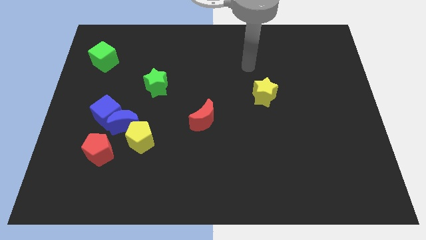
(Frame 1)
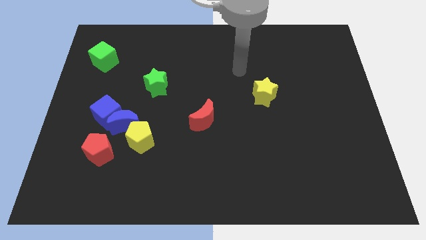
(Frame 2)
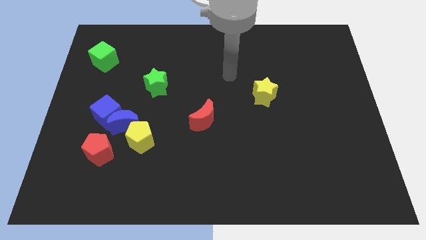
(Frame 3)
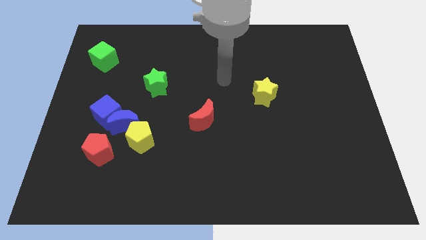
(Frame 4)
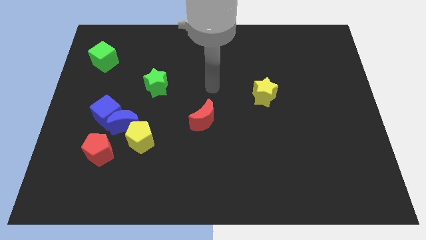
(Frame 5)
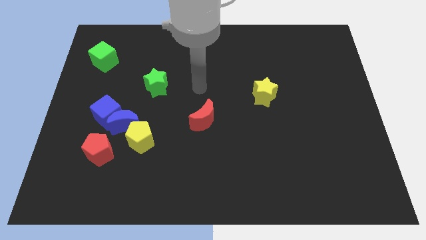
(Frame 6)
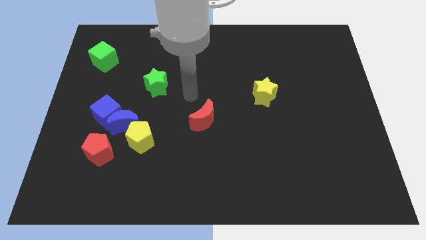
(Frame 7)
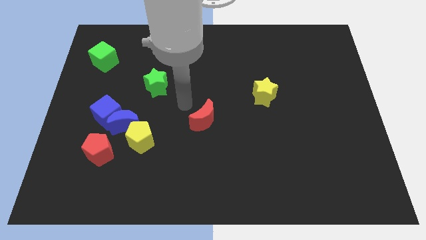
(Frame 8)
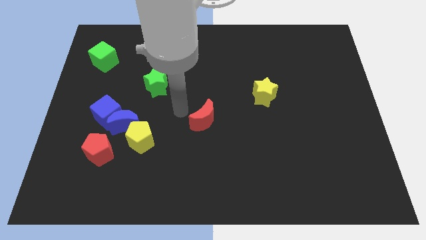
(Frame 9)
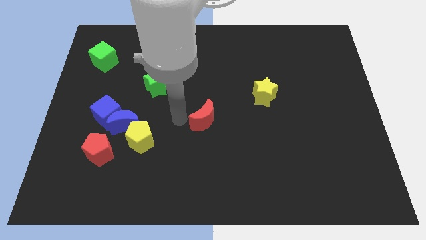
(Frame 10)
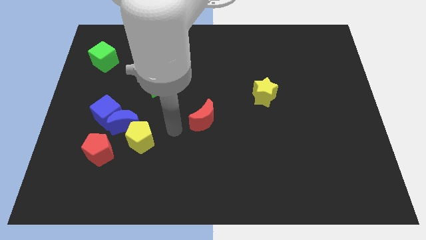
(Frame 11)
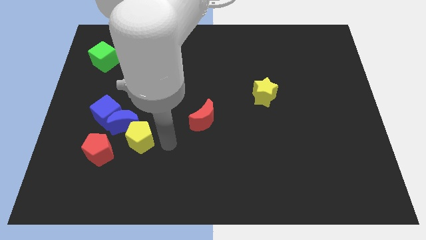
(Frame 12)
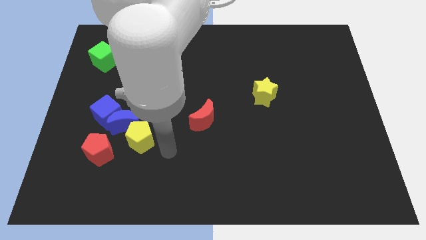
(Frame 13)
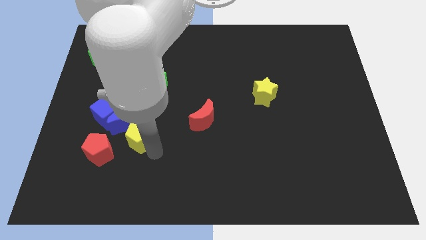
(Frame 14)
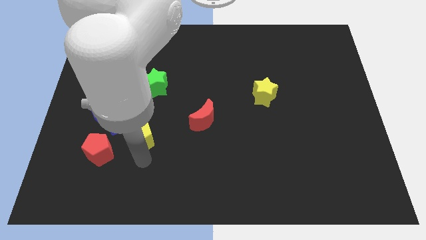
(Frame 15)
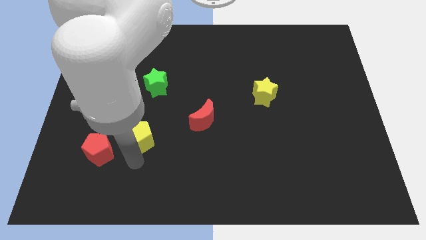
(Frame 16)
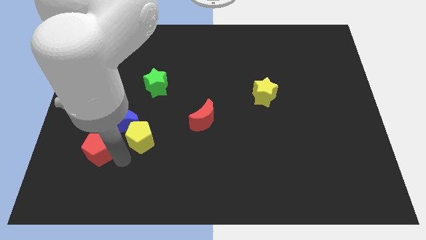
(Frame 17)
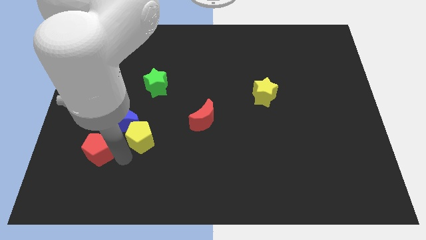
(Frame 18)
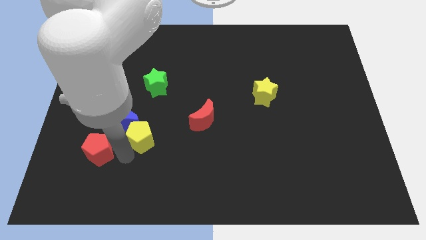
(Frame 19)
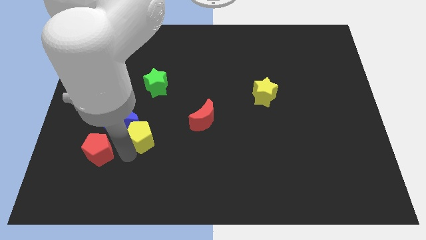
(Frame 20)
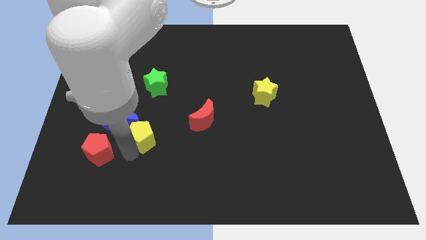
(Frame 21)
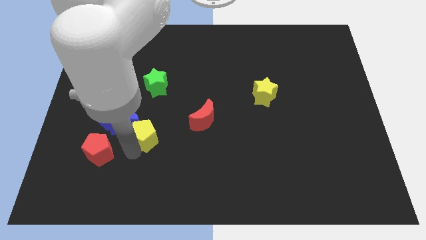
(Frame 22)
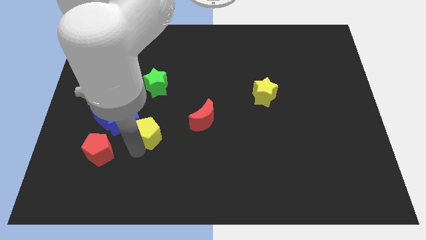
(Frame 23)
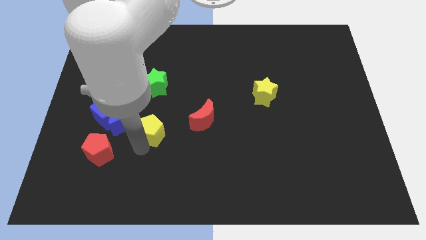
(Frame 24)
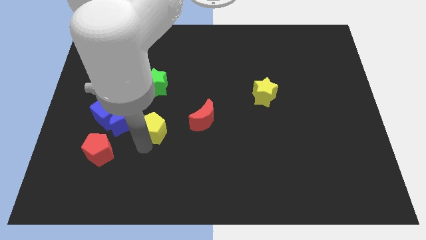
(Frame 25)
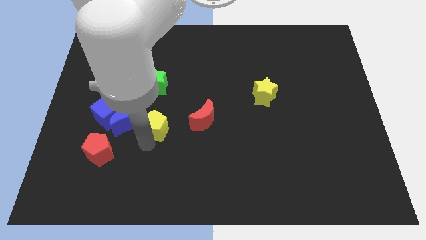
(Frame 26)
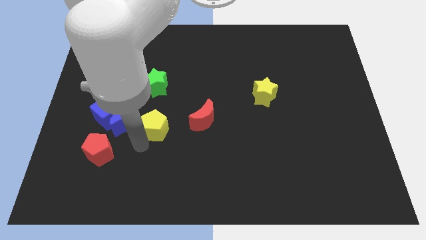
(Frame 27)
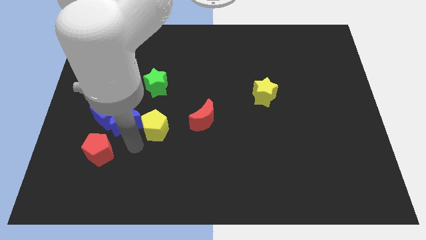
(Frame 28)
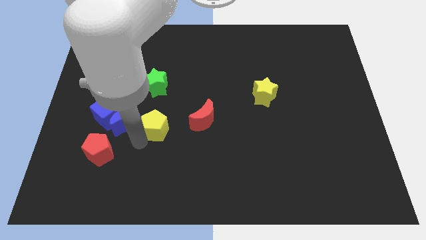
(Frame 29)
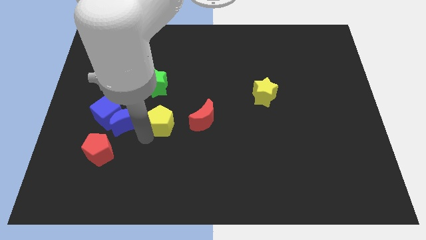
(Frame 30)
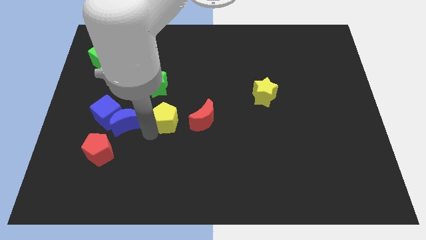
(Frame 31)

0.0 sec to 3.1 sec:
slightly push the yellow pentagon up and right diagonally

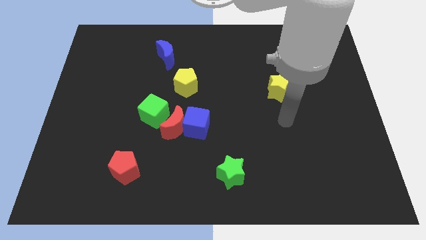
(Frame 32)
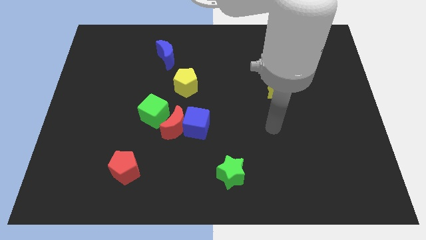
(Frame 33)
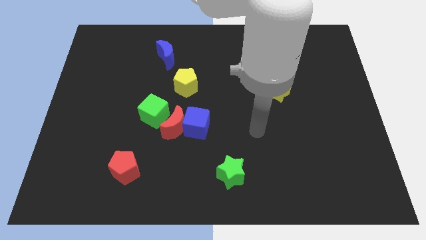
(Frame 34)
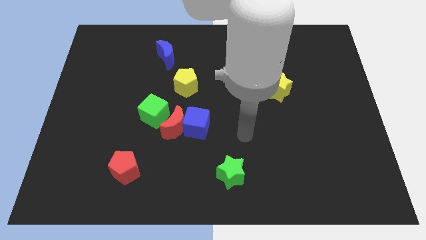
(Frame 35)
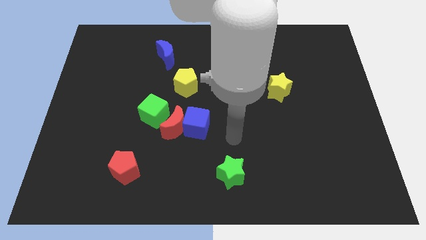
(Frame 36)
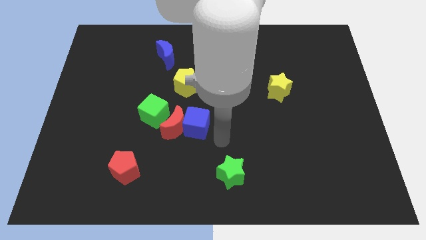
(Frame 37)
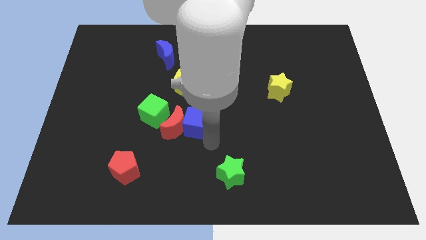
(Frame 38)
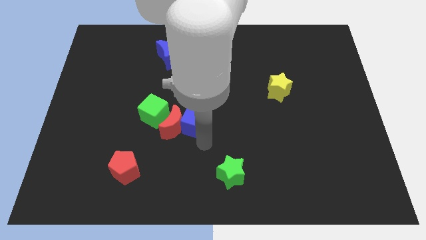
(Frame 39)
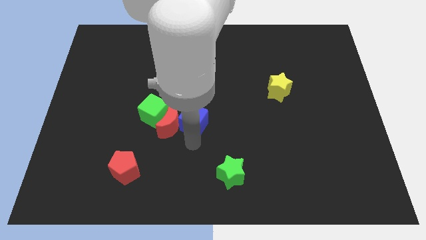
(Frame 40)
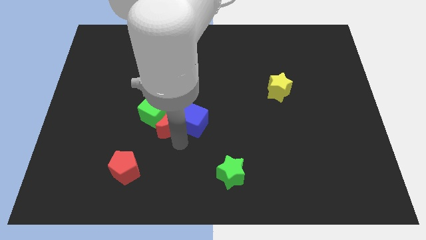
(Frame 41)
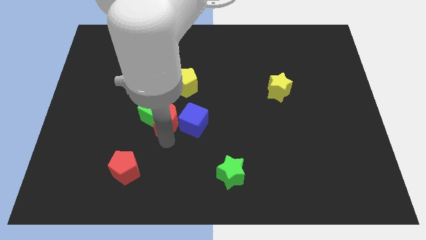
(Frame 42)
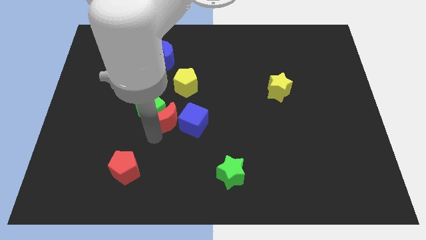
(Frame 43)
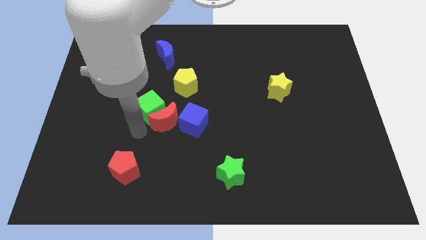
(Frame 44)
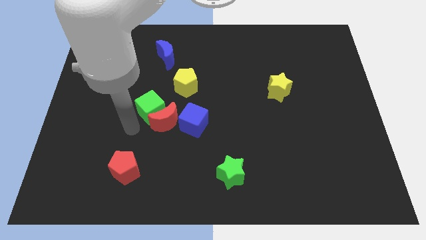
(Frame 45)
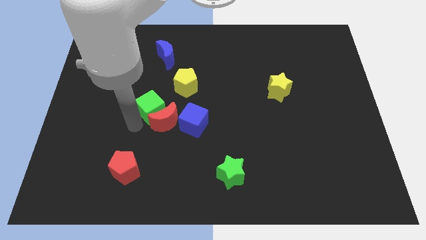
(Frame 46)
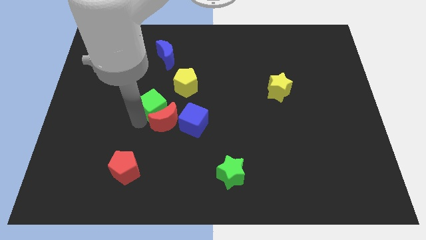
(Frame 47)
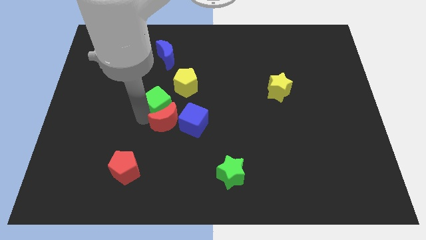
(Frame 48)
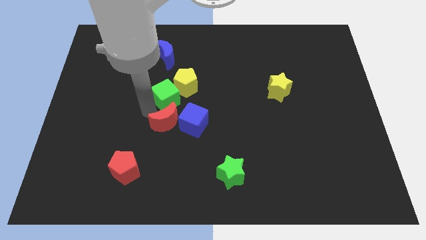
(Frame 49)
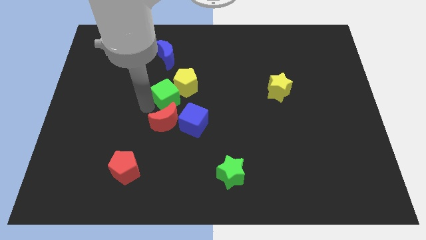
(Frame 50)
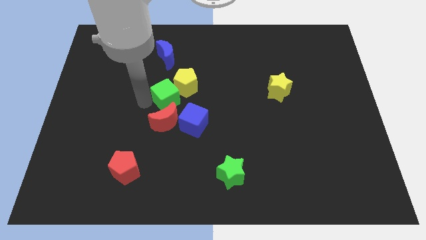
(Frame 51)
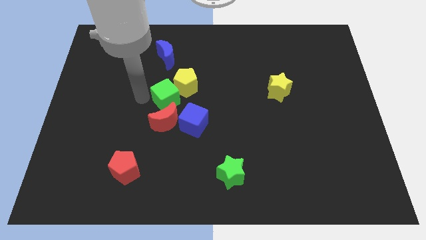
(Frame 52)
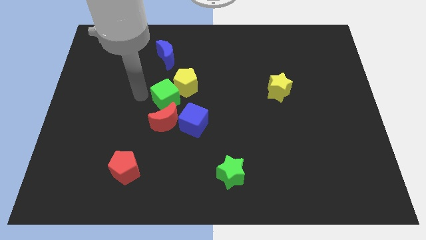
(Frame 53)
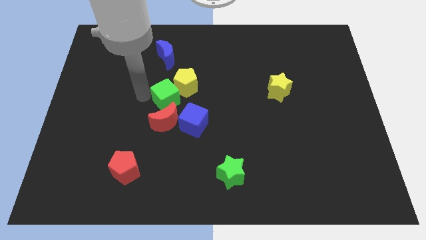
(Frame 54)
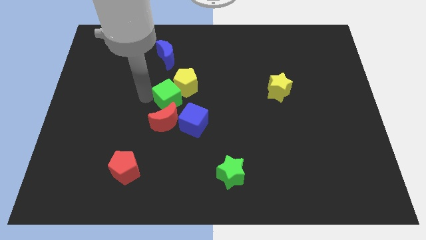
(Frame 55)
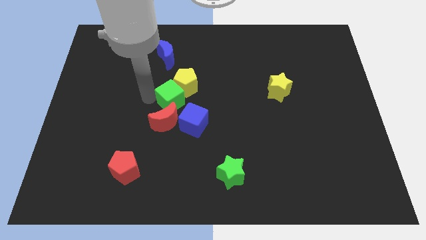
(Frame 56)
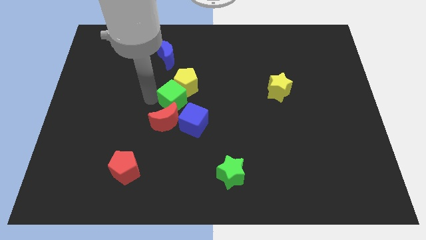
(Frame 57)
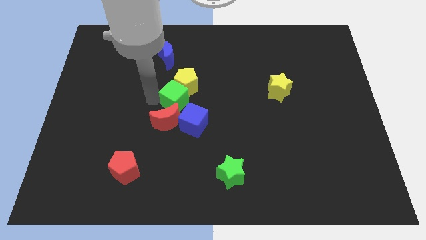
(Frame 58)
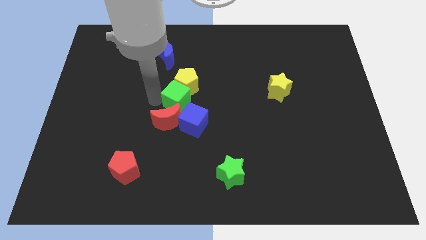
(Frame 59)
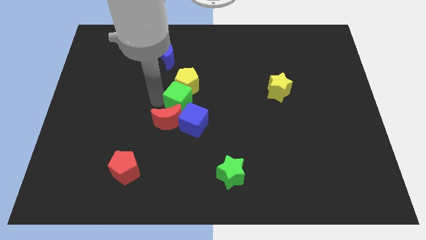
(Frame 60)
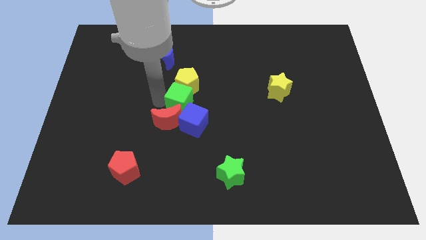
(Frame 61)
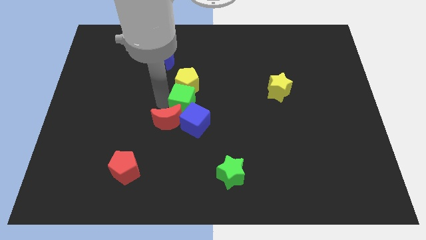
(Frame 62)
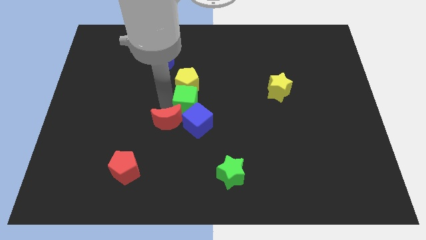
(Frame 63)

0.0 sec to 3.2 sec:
move the green cube to the right a little bit

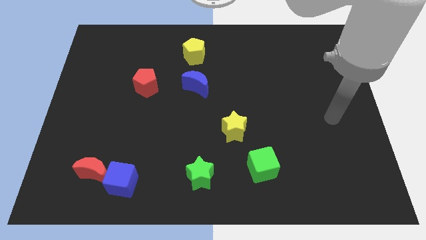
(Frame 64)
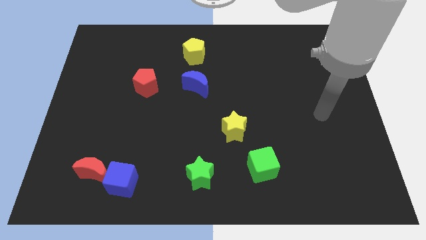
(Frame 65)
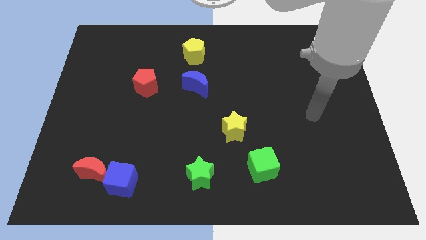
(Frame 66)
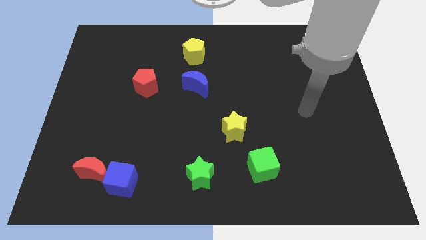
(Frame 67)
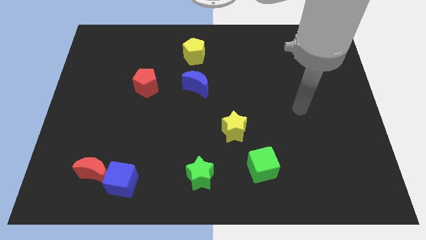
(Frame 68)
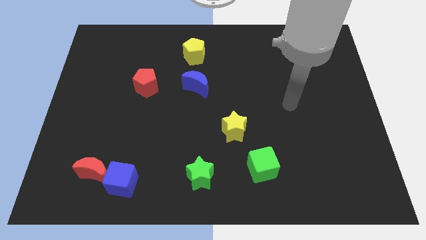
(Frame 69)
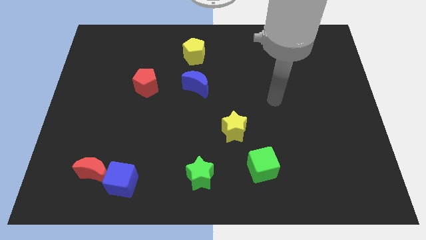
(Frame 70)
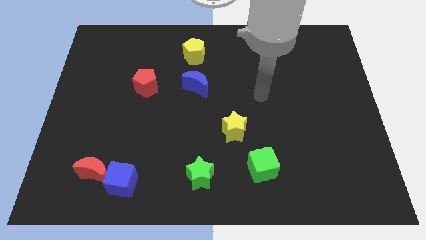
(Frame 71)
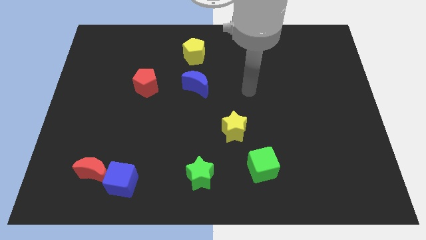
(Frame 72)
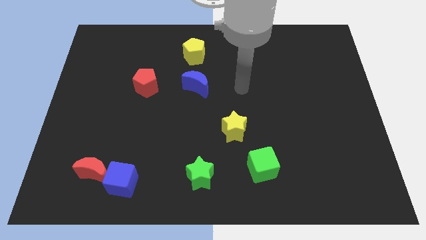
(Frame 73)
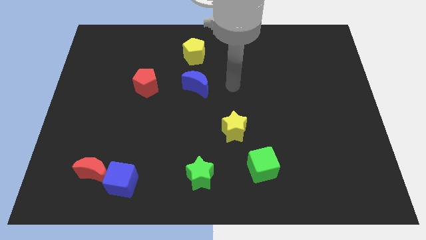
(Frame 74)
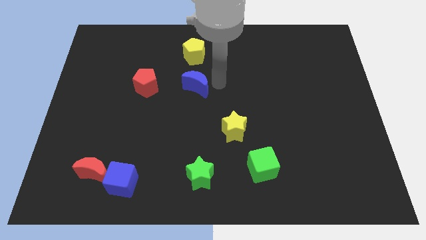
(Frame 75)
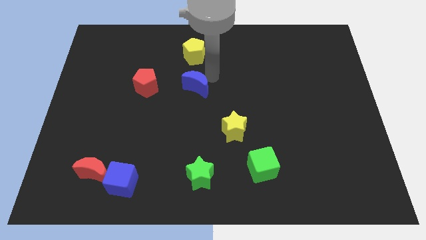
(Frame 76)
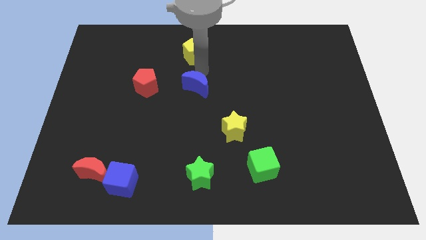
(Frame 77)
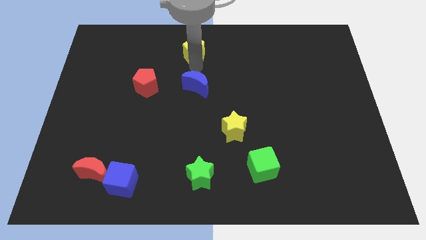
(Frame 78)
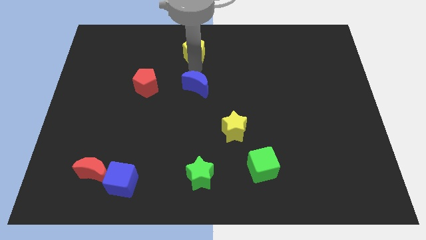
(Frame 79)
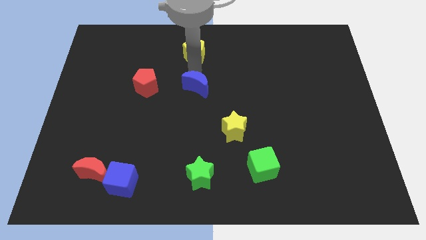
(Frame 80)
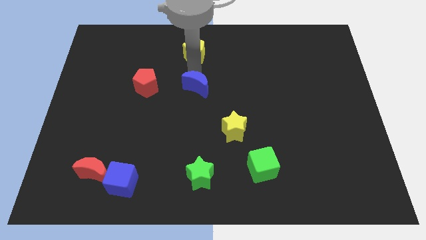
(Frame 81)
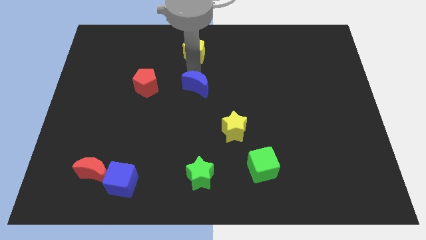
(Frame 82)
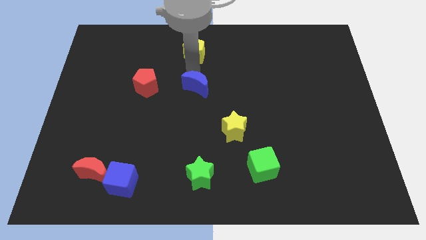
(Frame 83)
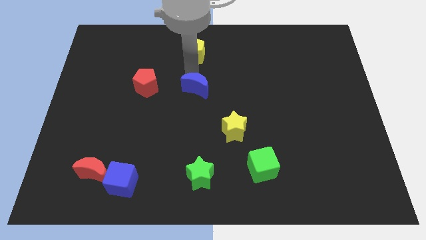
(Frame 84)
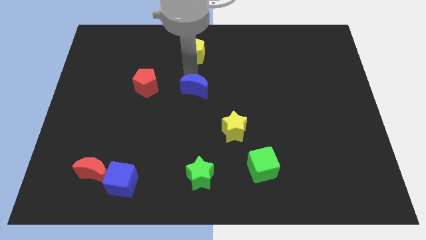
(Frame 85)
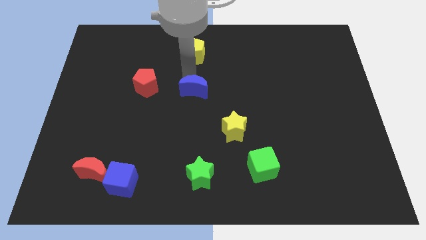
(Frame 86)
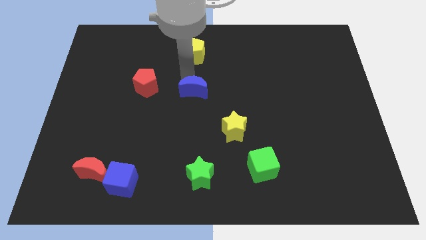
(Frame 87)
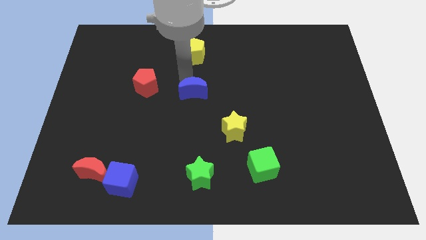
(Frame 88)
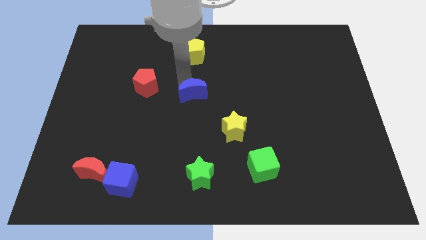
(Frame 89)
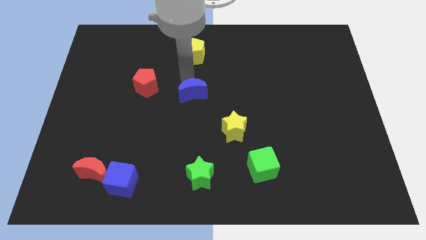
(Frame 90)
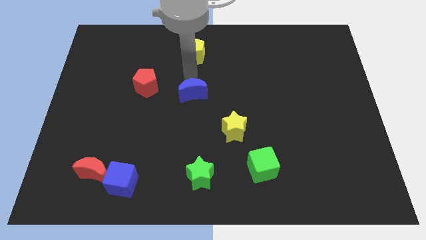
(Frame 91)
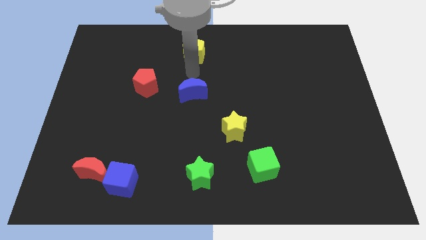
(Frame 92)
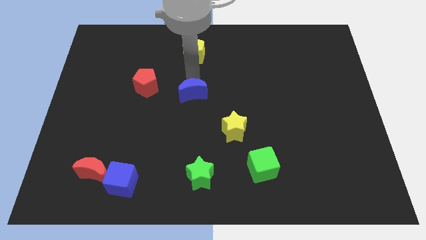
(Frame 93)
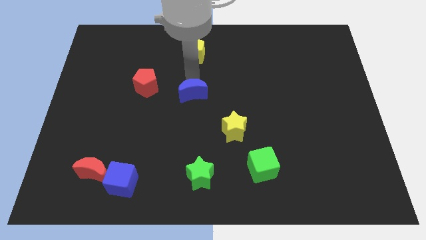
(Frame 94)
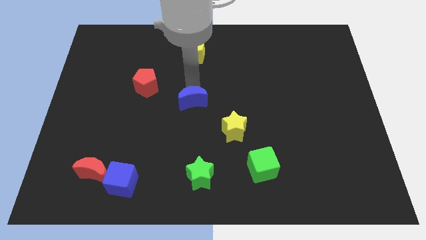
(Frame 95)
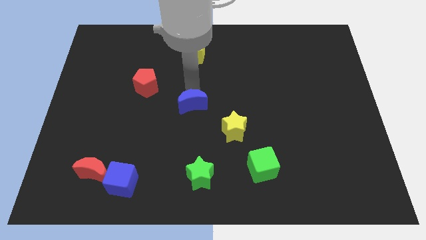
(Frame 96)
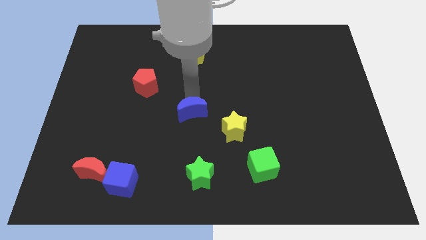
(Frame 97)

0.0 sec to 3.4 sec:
move the blue moon downwards a little
